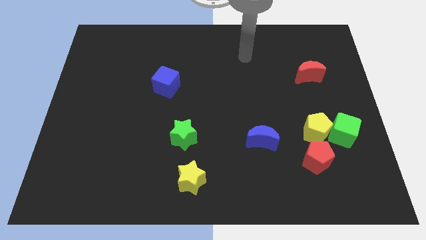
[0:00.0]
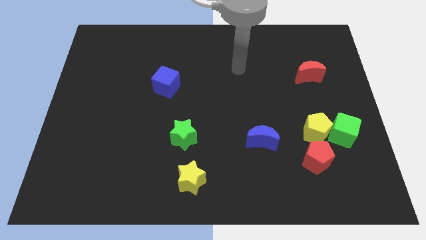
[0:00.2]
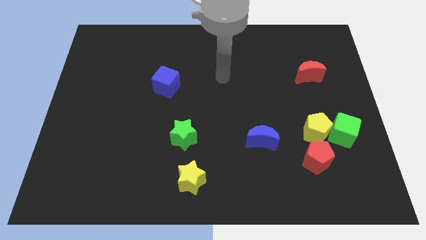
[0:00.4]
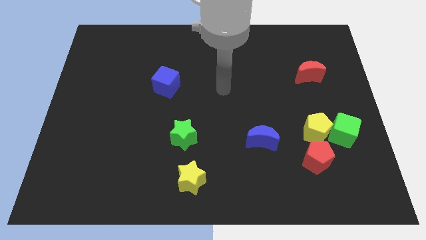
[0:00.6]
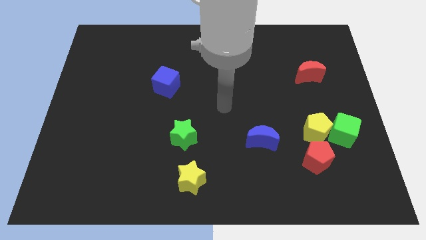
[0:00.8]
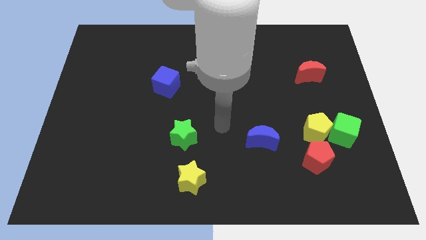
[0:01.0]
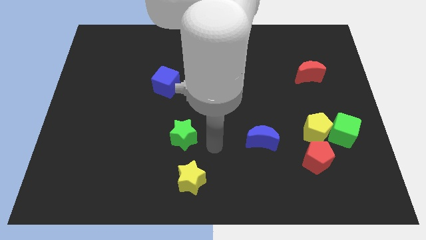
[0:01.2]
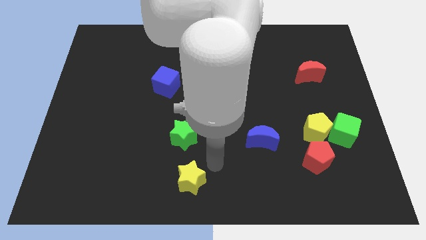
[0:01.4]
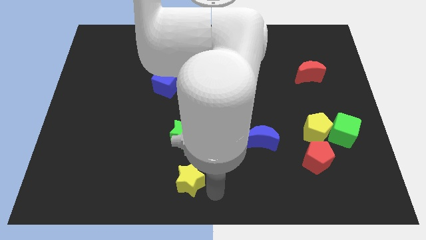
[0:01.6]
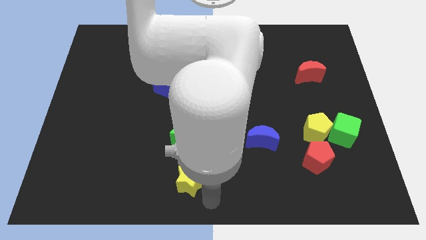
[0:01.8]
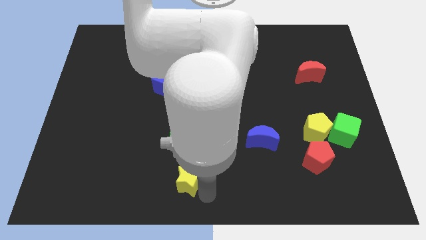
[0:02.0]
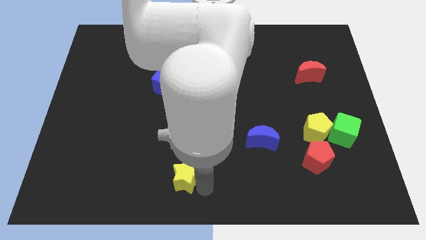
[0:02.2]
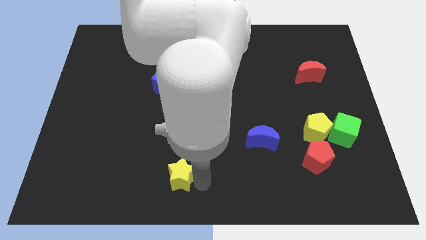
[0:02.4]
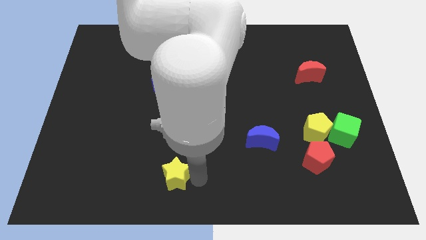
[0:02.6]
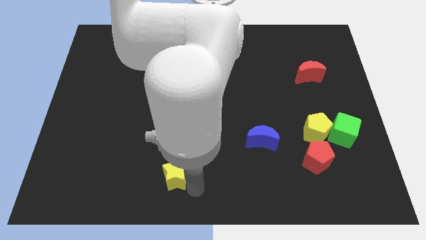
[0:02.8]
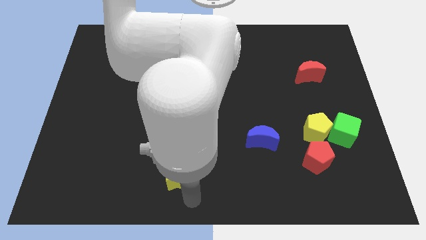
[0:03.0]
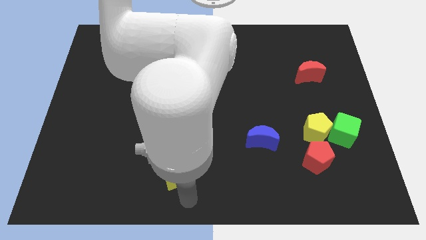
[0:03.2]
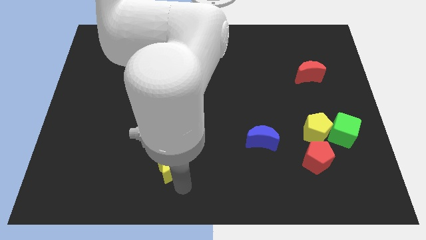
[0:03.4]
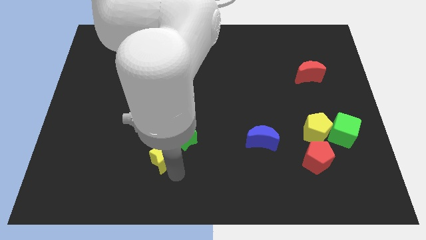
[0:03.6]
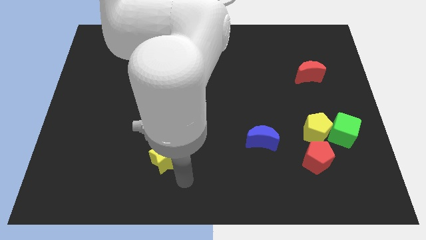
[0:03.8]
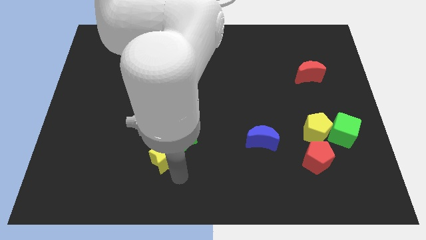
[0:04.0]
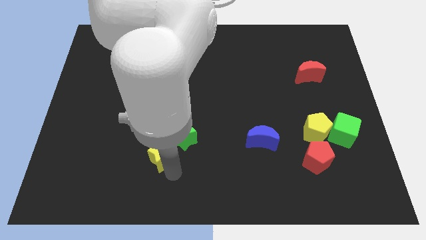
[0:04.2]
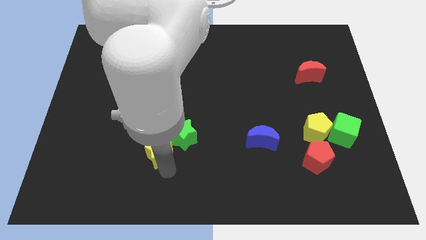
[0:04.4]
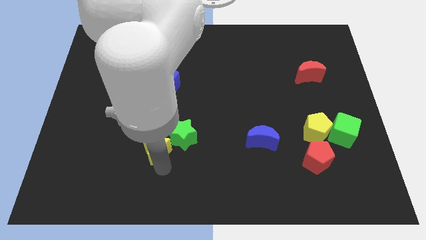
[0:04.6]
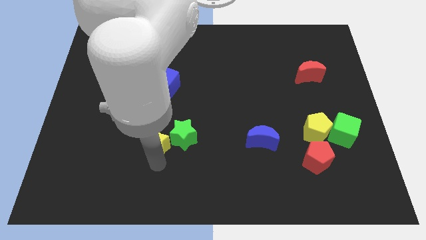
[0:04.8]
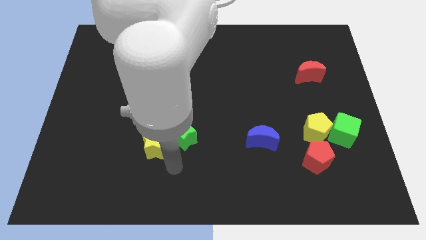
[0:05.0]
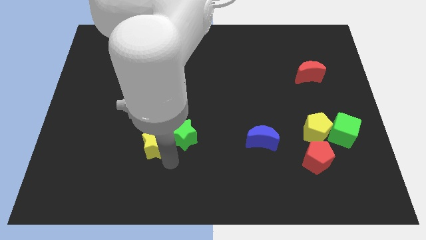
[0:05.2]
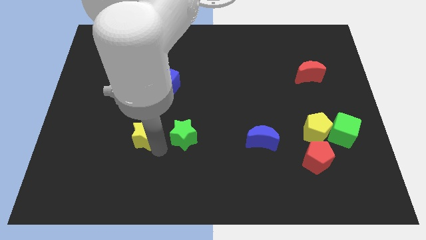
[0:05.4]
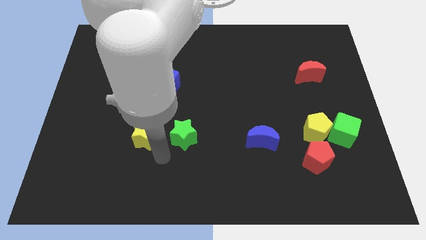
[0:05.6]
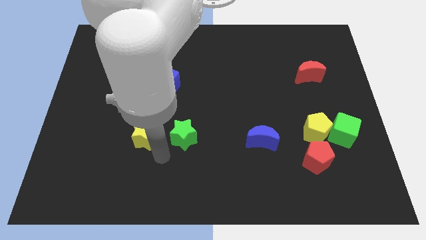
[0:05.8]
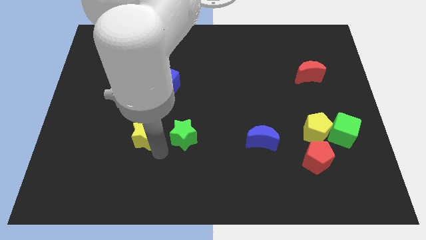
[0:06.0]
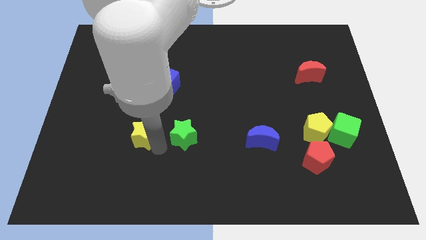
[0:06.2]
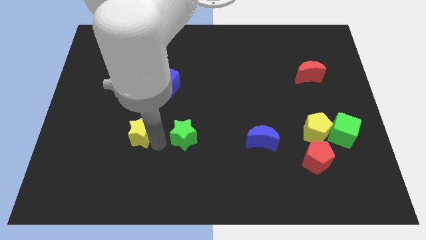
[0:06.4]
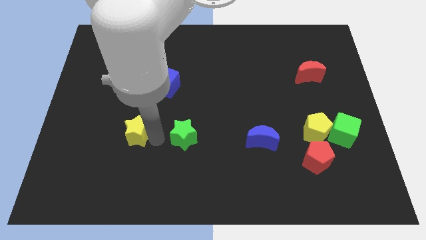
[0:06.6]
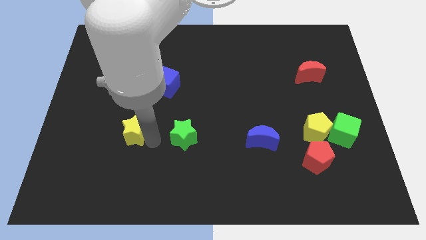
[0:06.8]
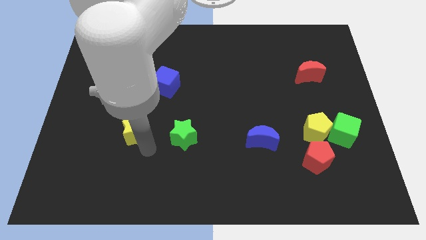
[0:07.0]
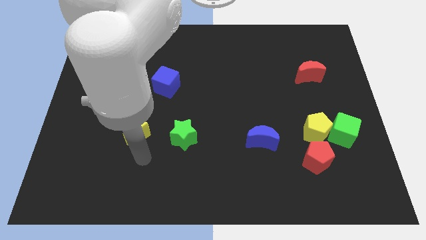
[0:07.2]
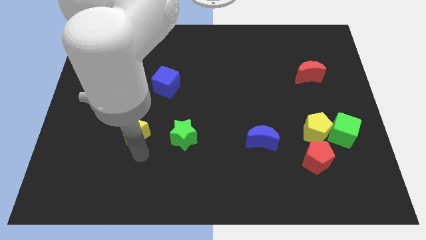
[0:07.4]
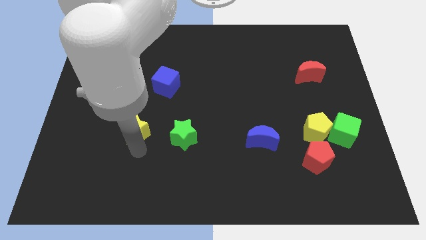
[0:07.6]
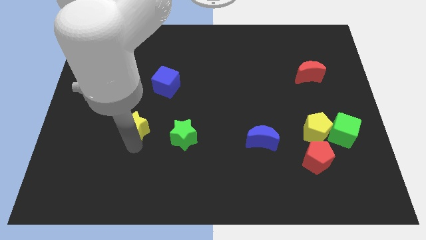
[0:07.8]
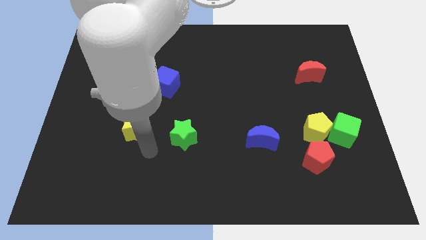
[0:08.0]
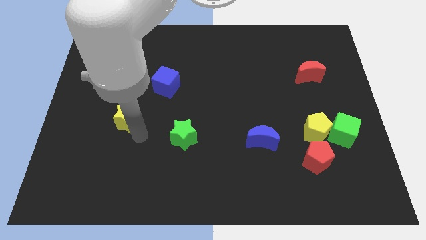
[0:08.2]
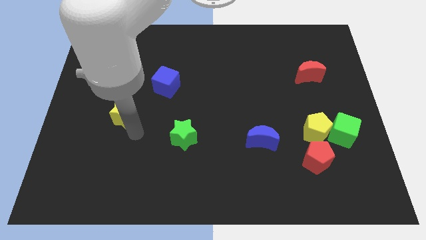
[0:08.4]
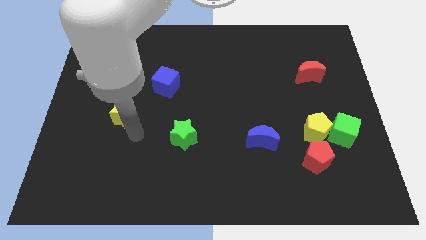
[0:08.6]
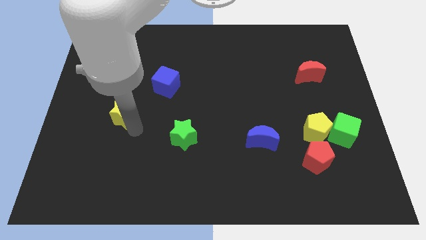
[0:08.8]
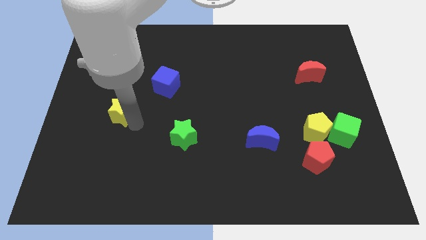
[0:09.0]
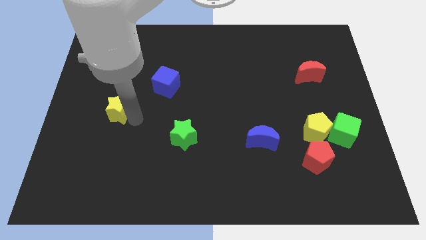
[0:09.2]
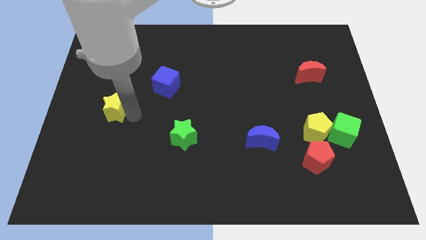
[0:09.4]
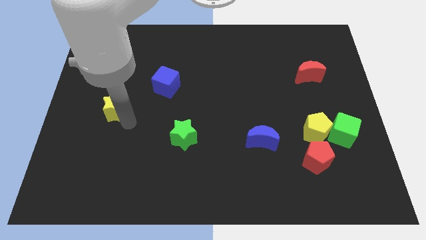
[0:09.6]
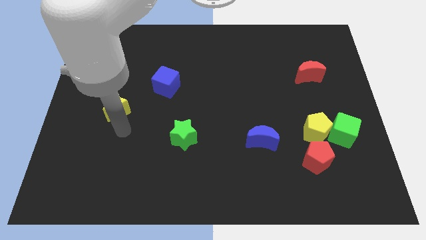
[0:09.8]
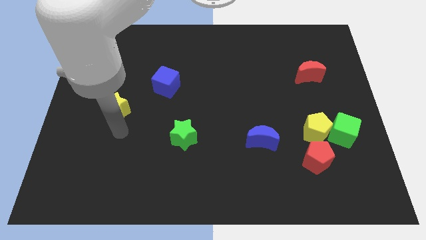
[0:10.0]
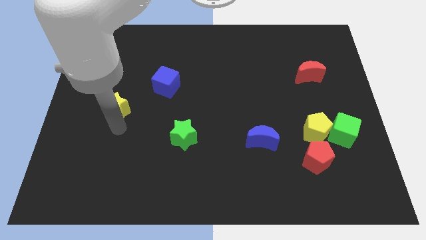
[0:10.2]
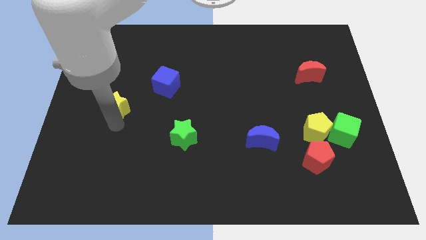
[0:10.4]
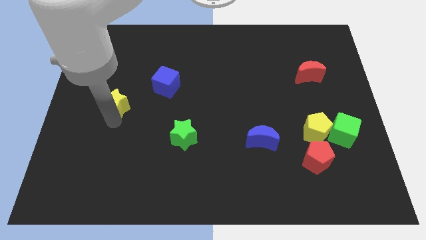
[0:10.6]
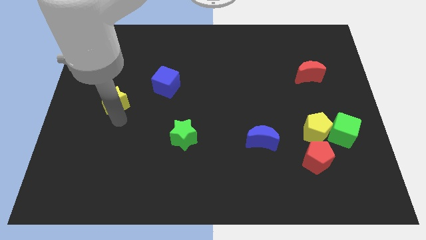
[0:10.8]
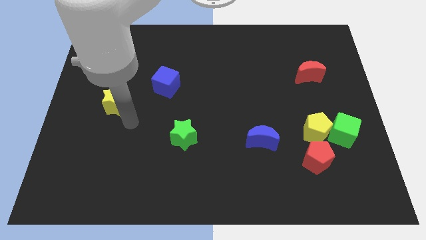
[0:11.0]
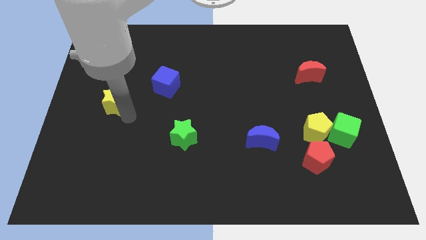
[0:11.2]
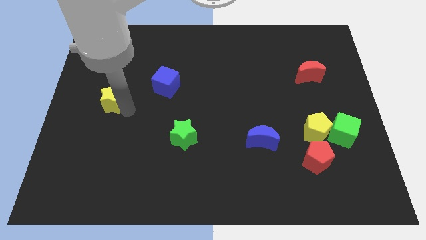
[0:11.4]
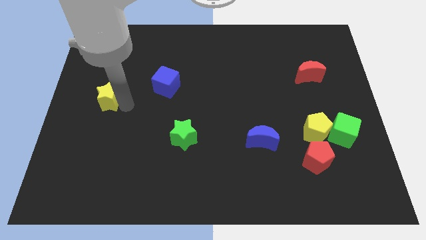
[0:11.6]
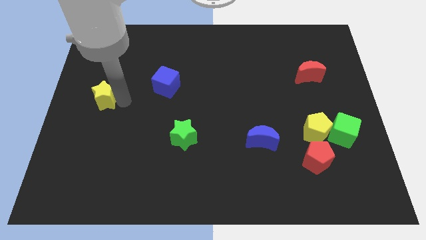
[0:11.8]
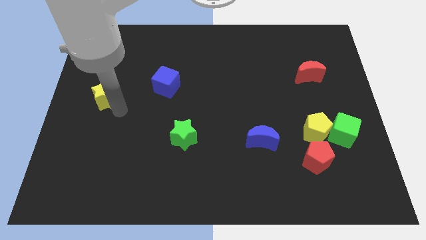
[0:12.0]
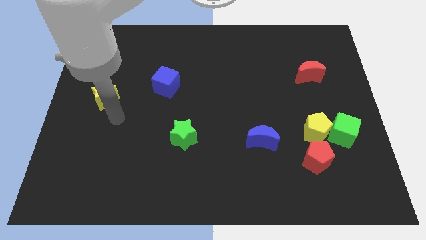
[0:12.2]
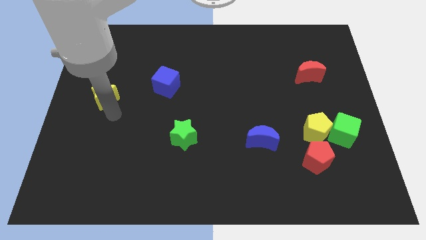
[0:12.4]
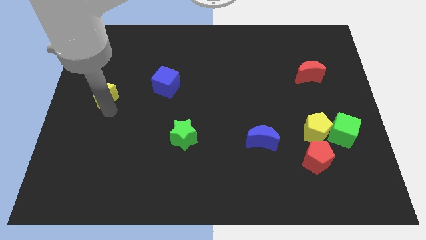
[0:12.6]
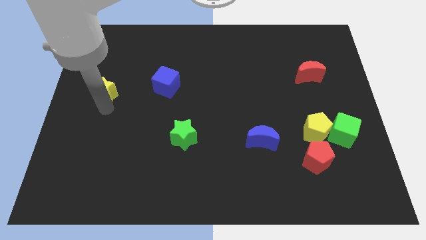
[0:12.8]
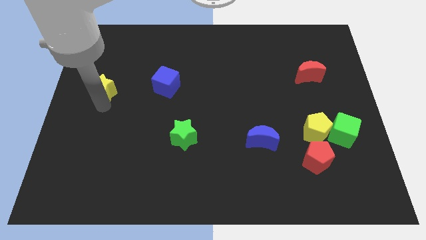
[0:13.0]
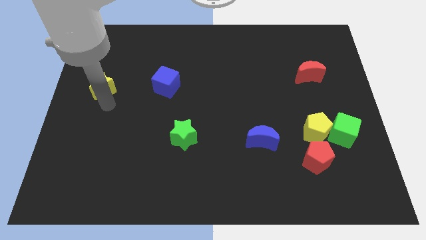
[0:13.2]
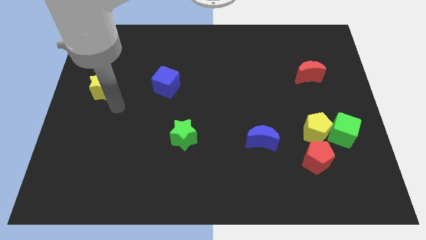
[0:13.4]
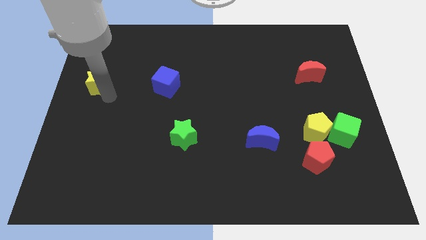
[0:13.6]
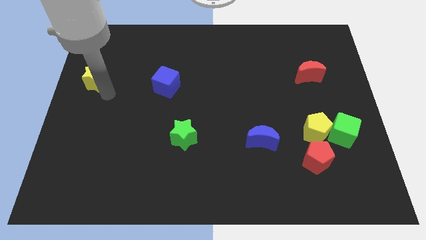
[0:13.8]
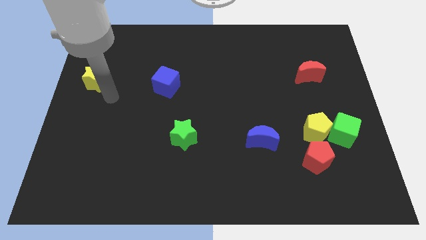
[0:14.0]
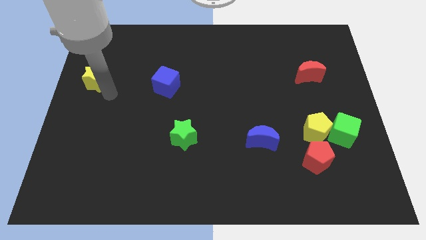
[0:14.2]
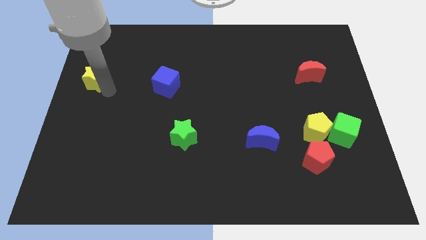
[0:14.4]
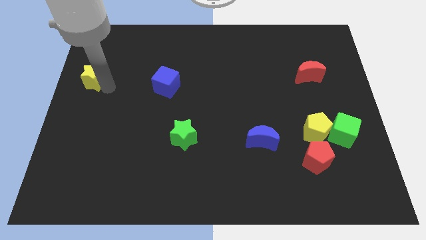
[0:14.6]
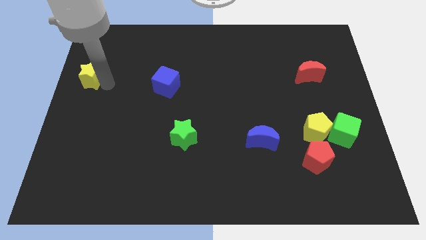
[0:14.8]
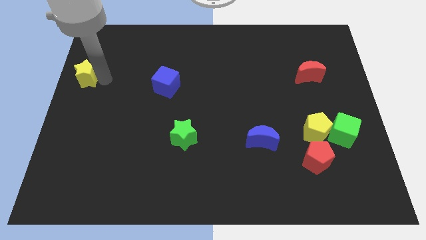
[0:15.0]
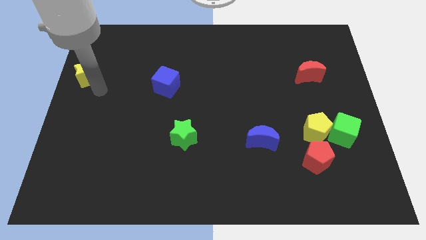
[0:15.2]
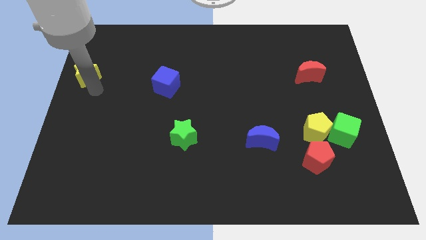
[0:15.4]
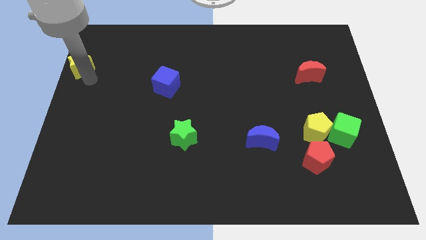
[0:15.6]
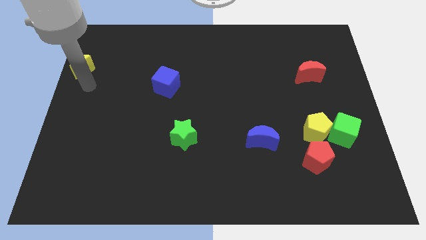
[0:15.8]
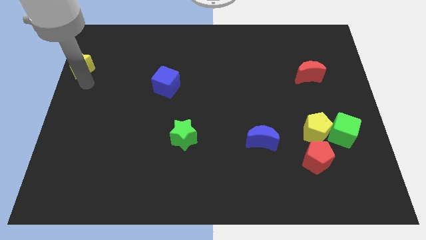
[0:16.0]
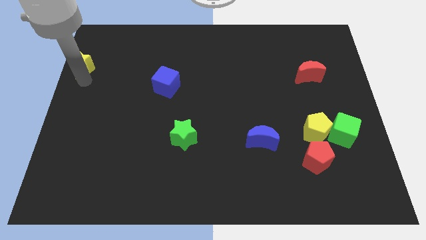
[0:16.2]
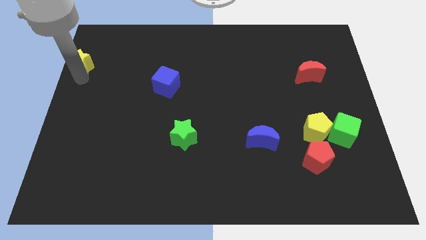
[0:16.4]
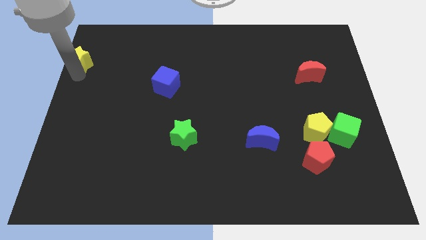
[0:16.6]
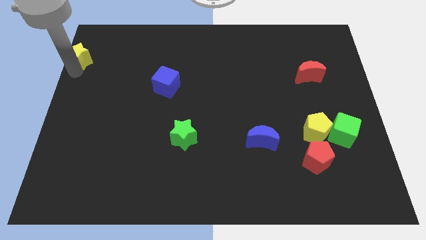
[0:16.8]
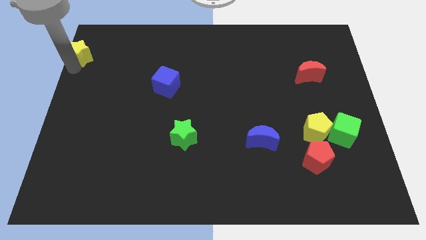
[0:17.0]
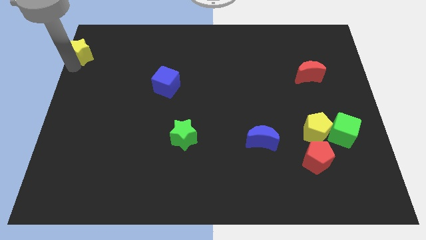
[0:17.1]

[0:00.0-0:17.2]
move the yellow star to the upper left corner
